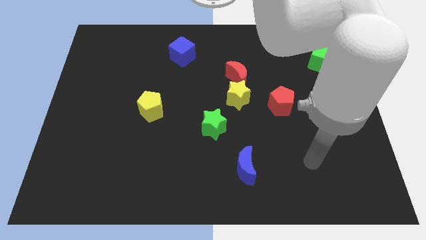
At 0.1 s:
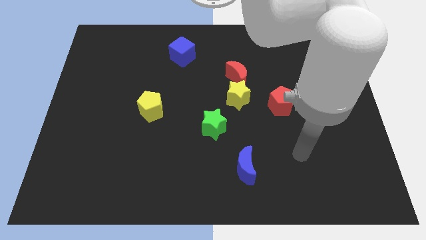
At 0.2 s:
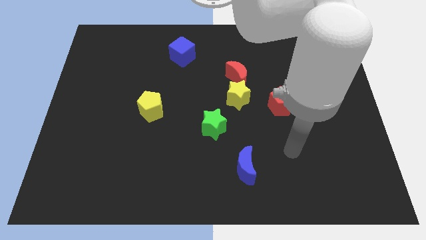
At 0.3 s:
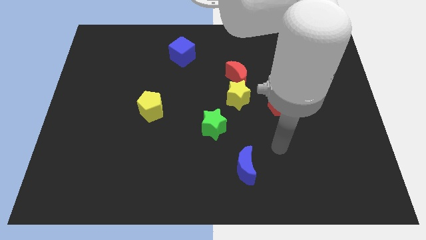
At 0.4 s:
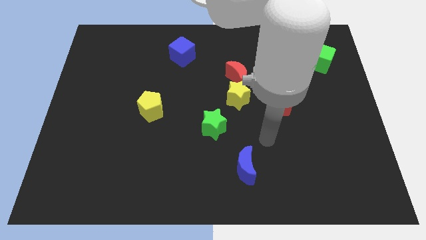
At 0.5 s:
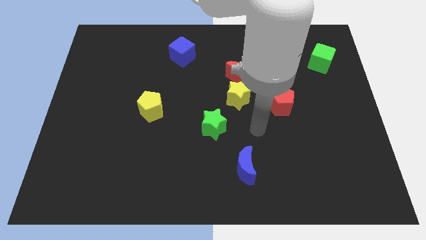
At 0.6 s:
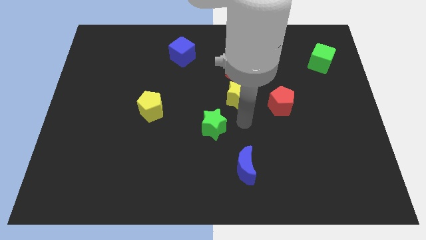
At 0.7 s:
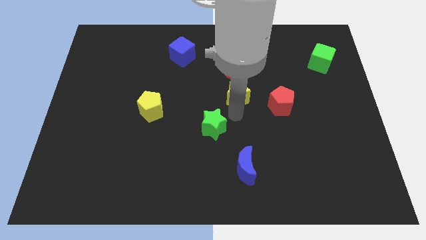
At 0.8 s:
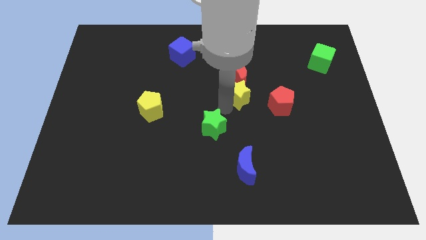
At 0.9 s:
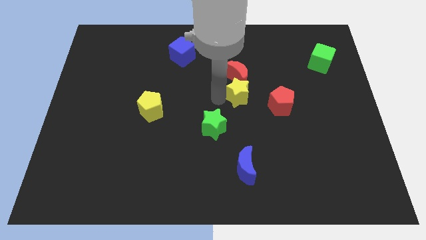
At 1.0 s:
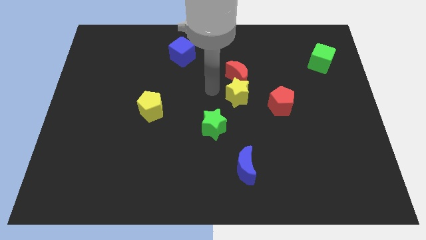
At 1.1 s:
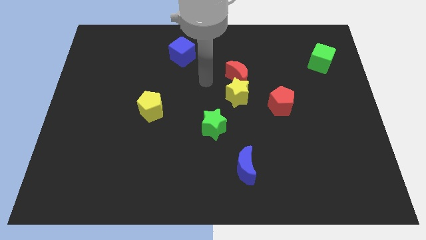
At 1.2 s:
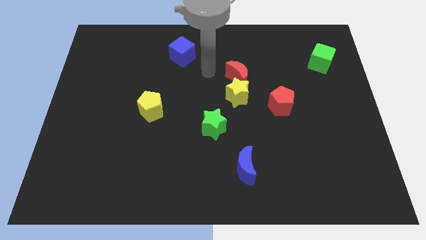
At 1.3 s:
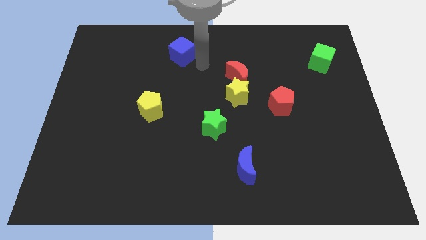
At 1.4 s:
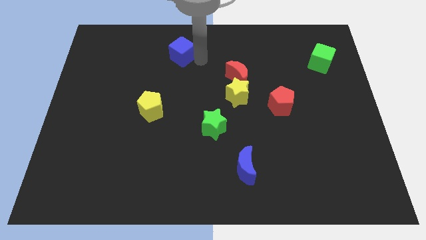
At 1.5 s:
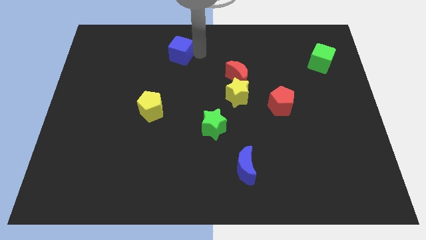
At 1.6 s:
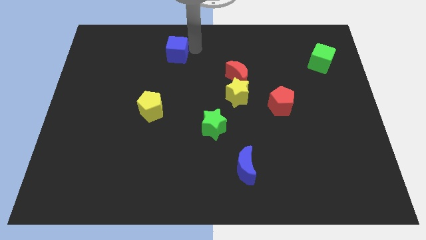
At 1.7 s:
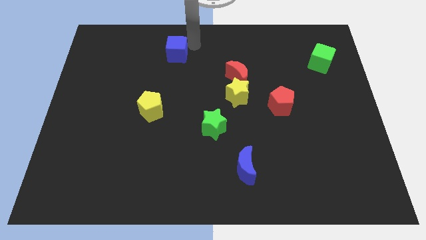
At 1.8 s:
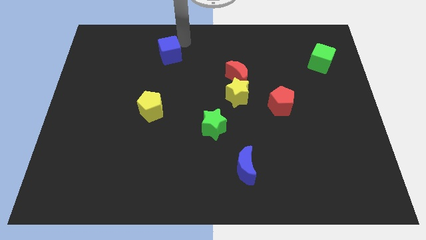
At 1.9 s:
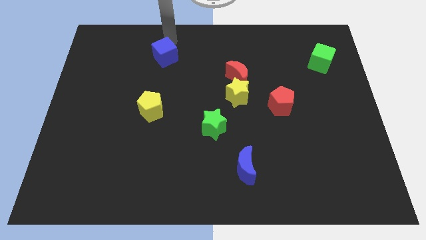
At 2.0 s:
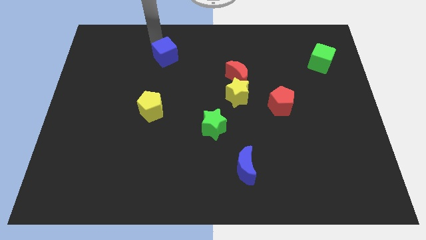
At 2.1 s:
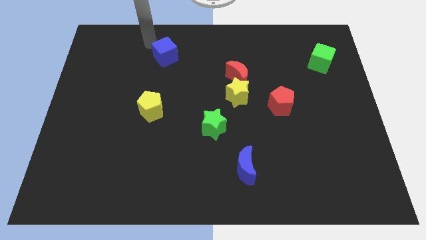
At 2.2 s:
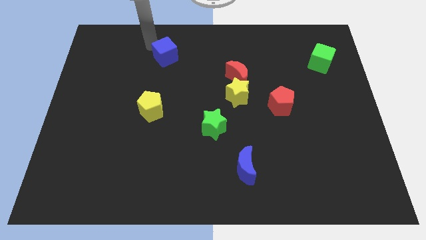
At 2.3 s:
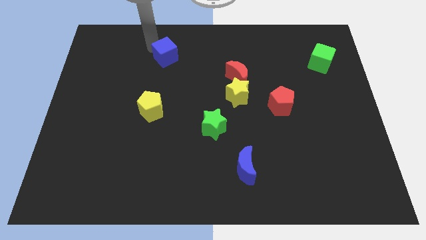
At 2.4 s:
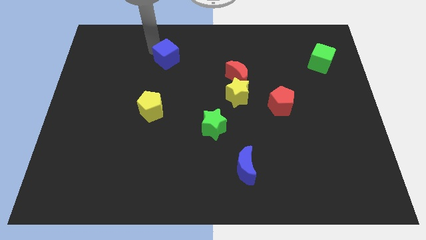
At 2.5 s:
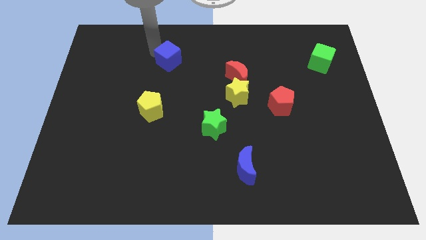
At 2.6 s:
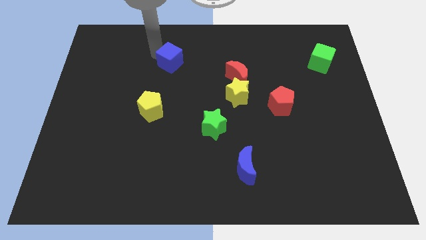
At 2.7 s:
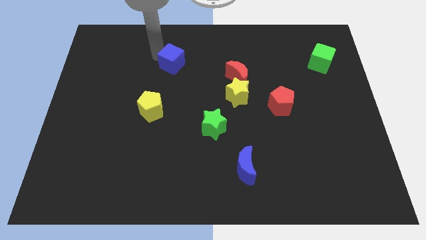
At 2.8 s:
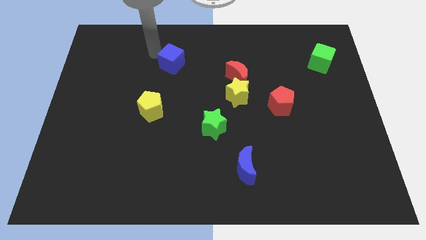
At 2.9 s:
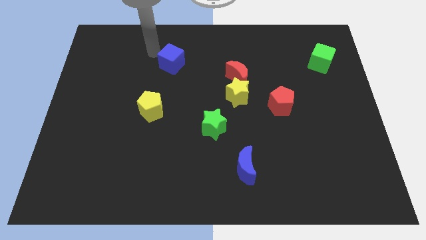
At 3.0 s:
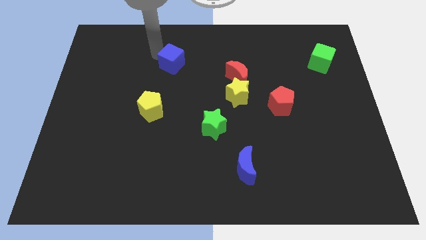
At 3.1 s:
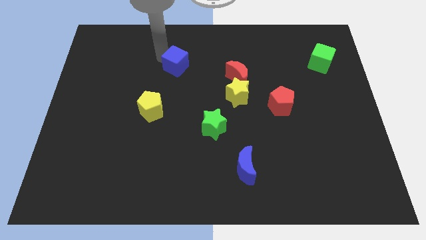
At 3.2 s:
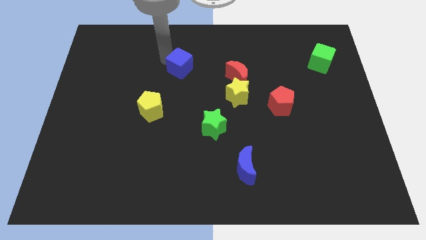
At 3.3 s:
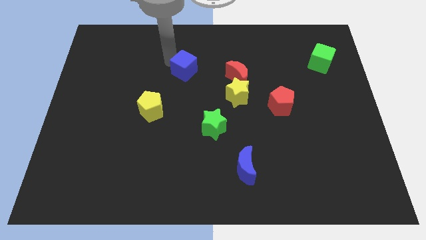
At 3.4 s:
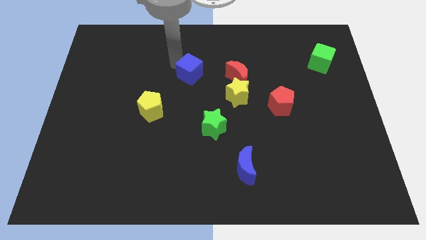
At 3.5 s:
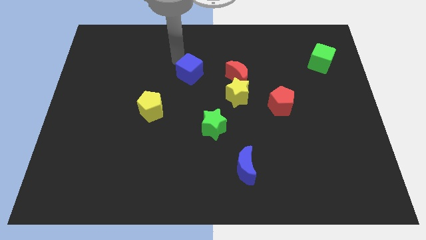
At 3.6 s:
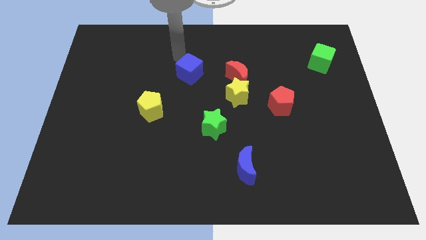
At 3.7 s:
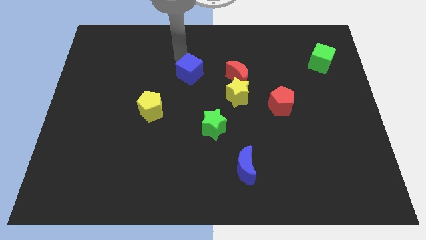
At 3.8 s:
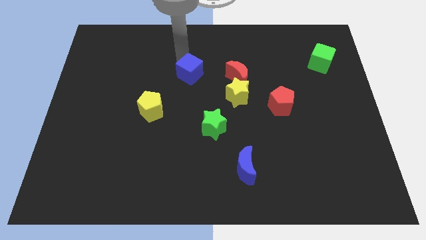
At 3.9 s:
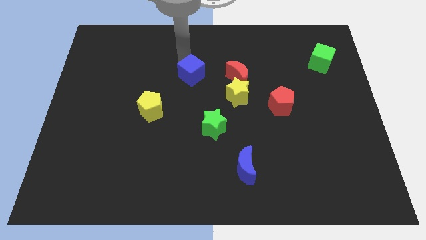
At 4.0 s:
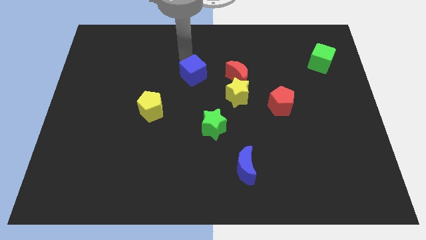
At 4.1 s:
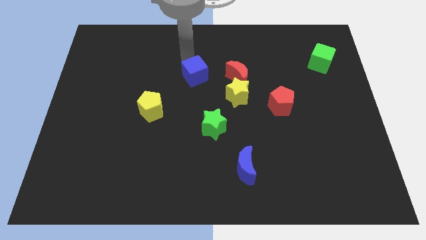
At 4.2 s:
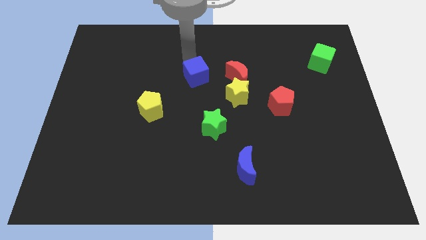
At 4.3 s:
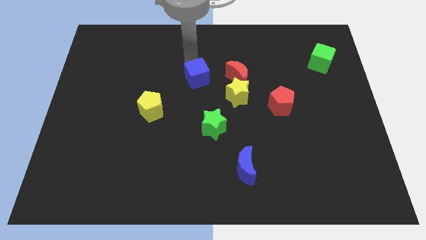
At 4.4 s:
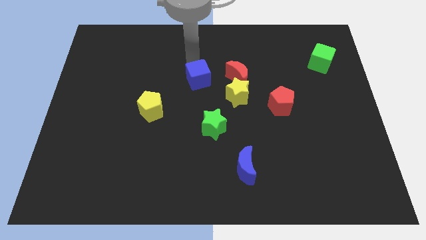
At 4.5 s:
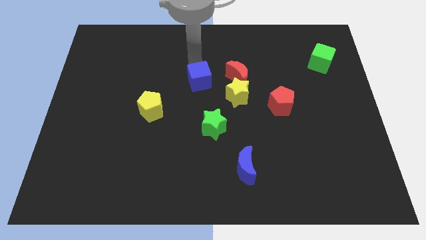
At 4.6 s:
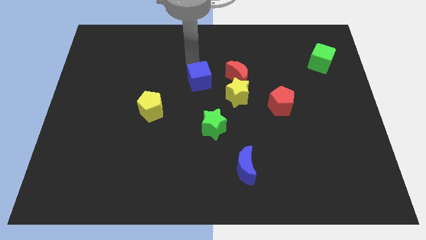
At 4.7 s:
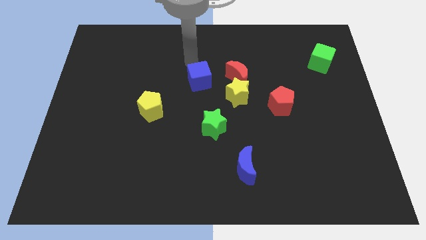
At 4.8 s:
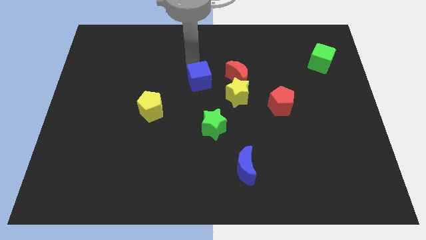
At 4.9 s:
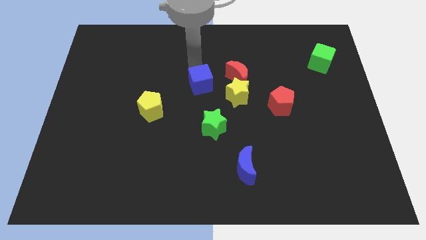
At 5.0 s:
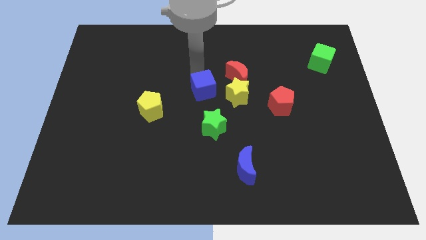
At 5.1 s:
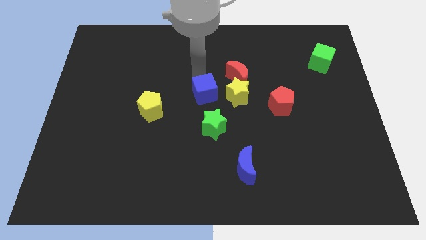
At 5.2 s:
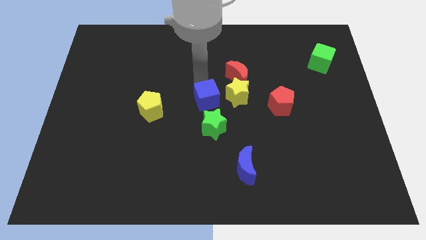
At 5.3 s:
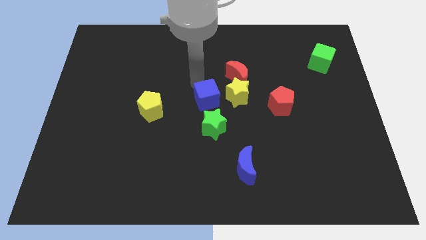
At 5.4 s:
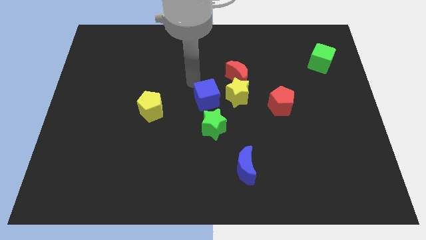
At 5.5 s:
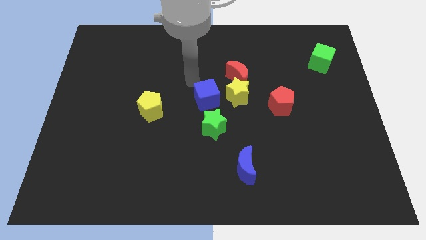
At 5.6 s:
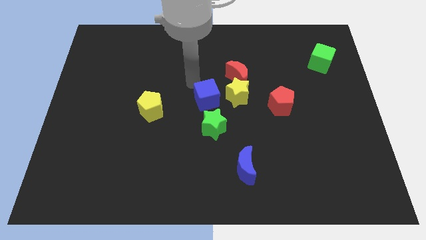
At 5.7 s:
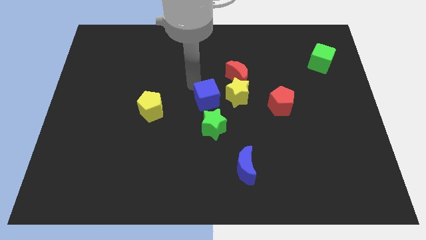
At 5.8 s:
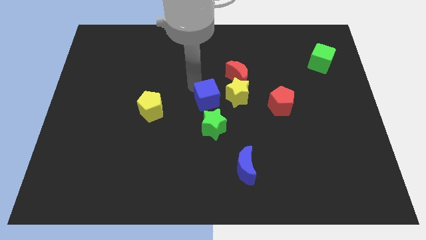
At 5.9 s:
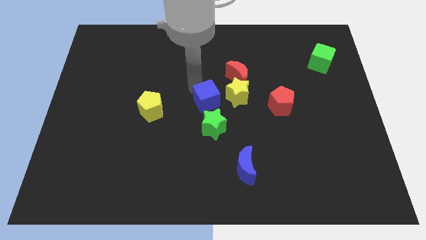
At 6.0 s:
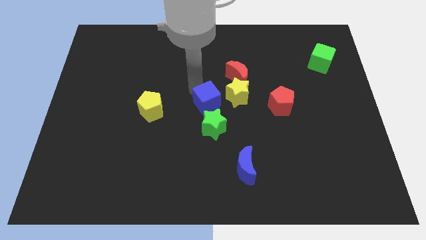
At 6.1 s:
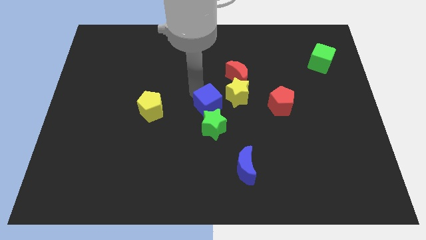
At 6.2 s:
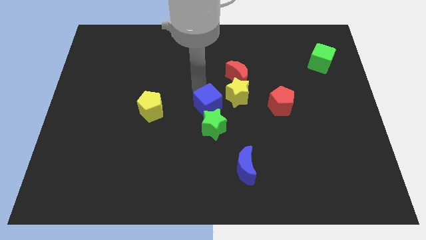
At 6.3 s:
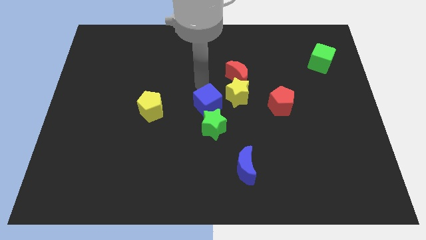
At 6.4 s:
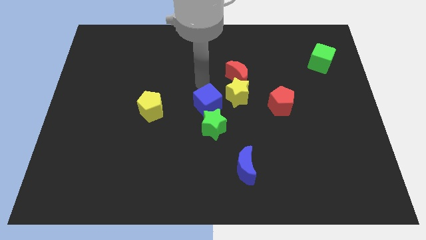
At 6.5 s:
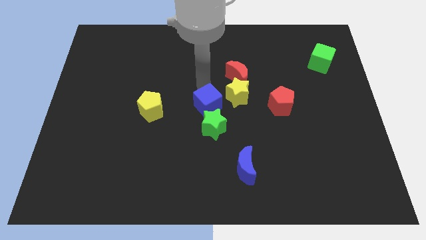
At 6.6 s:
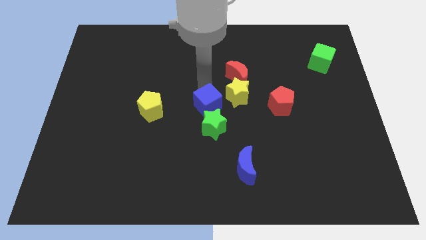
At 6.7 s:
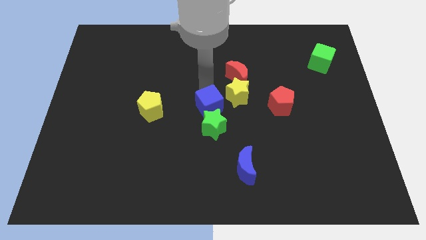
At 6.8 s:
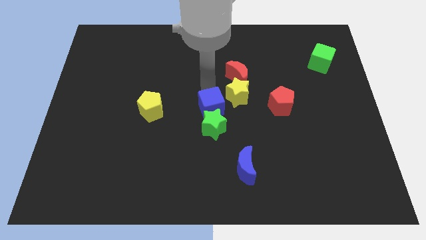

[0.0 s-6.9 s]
move the blue cube towards the green star

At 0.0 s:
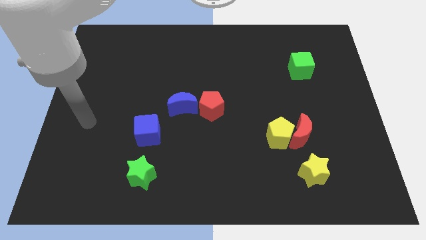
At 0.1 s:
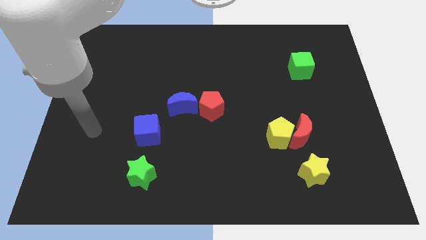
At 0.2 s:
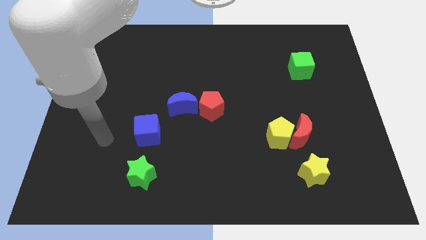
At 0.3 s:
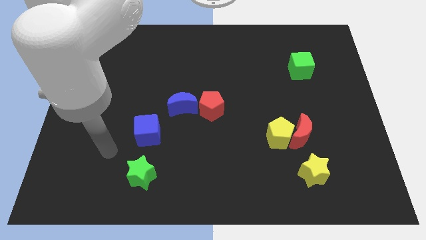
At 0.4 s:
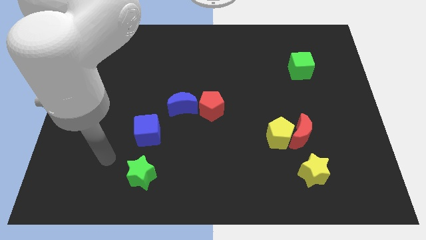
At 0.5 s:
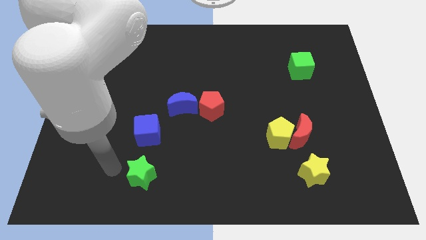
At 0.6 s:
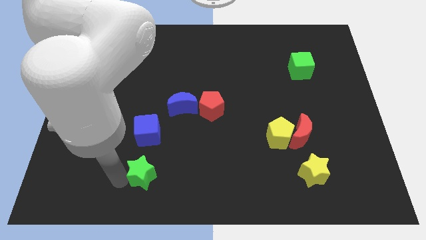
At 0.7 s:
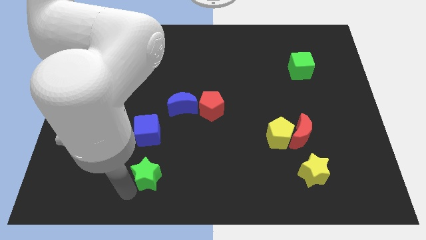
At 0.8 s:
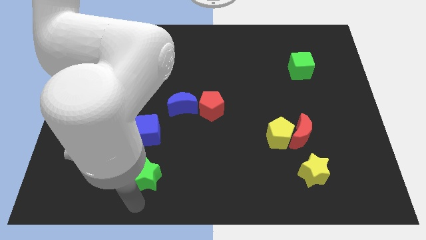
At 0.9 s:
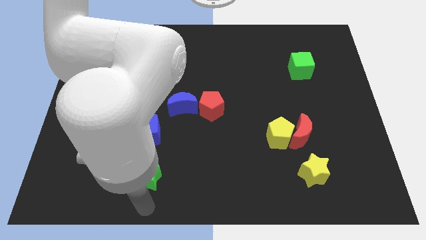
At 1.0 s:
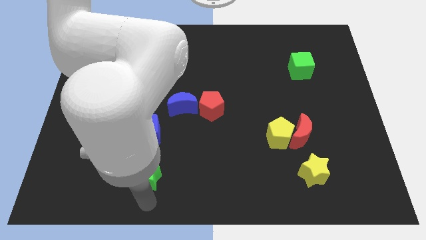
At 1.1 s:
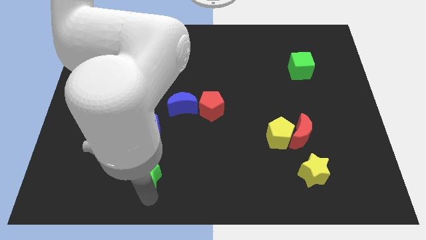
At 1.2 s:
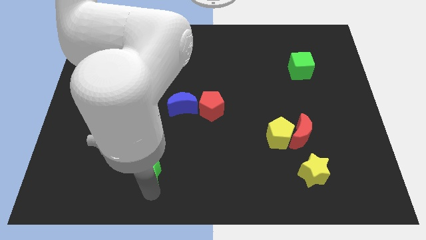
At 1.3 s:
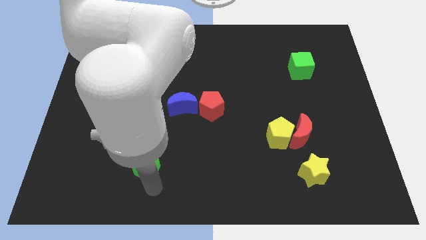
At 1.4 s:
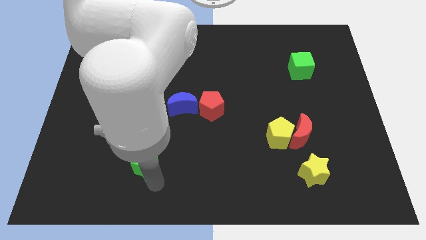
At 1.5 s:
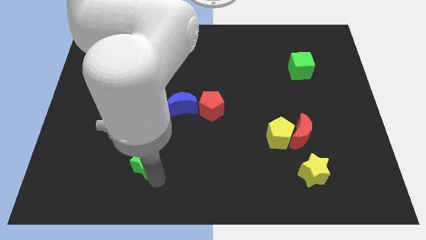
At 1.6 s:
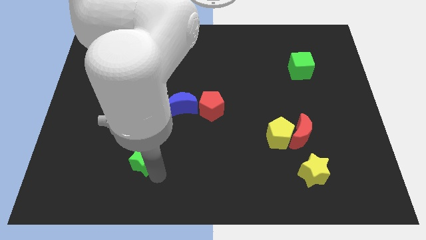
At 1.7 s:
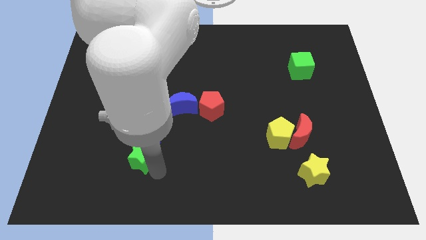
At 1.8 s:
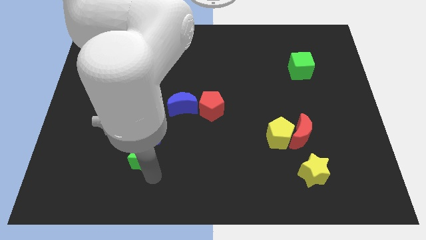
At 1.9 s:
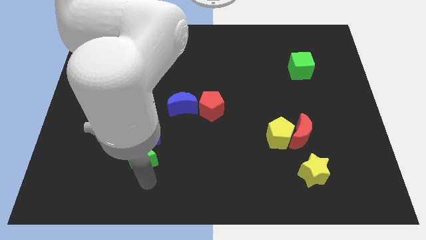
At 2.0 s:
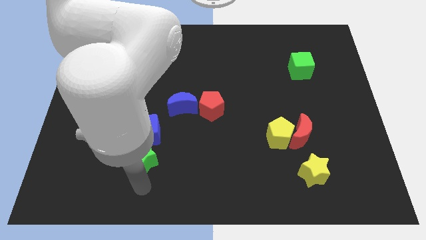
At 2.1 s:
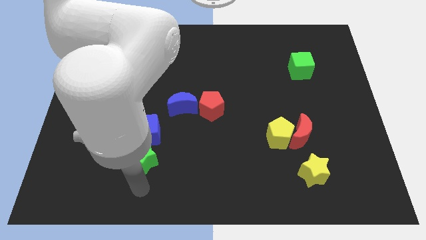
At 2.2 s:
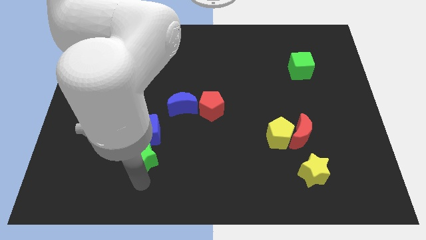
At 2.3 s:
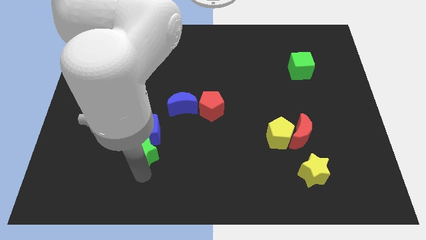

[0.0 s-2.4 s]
move the green star next to the blue cube
